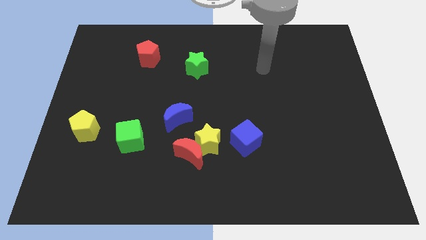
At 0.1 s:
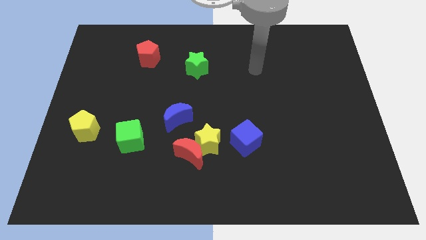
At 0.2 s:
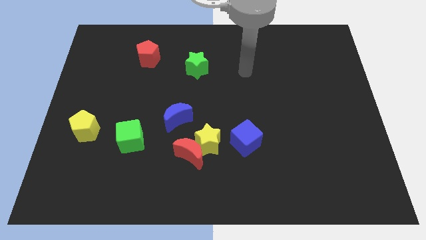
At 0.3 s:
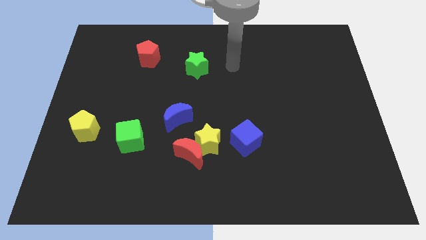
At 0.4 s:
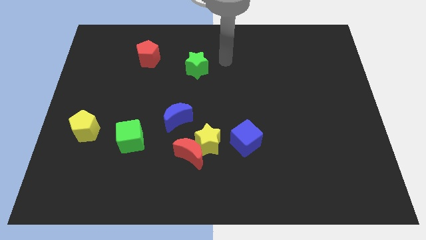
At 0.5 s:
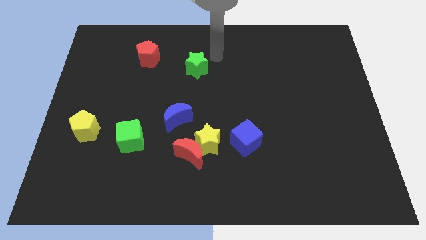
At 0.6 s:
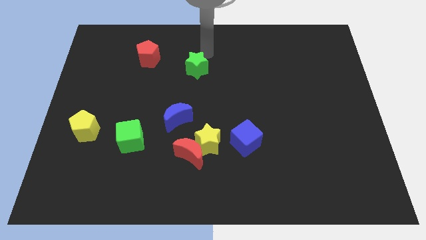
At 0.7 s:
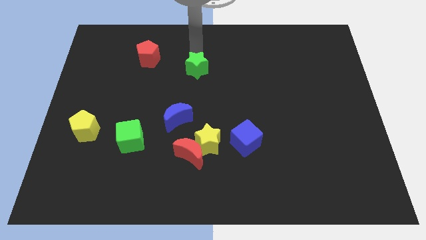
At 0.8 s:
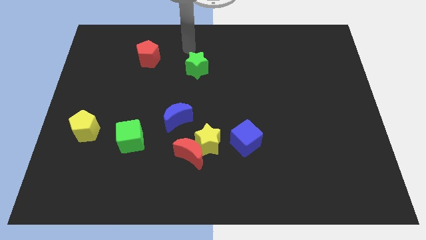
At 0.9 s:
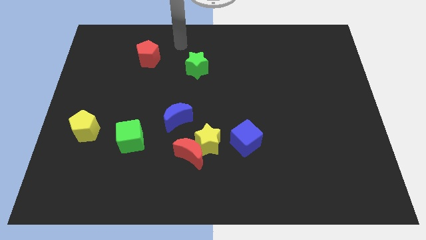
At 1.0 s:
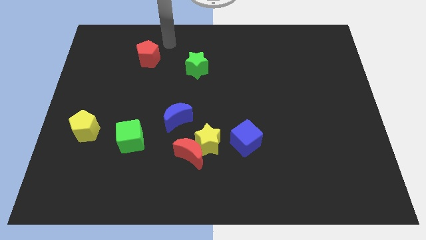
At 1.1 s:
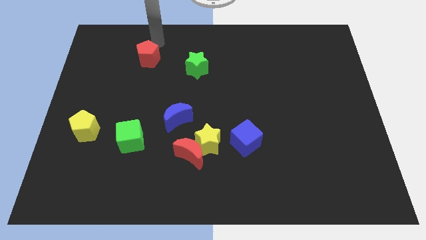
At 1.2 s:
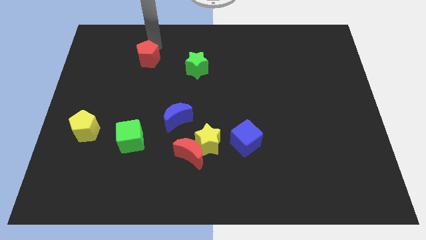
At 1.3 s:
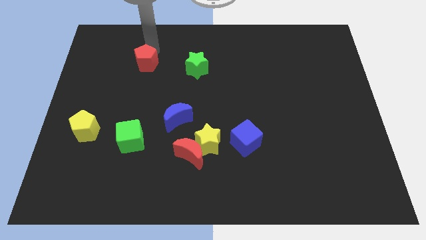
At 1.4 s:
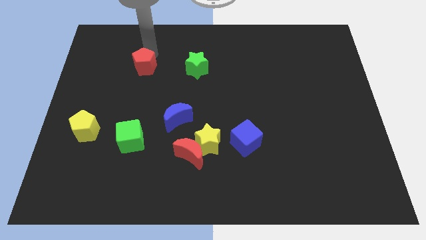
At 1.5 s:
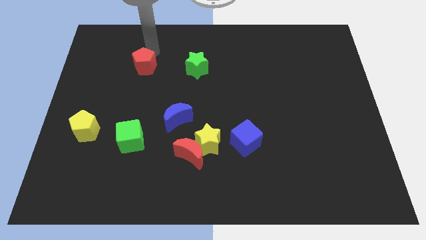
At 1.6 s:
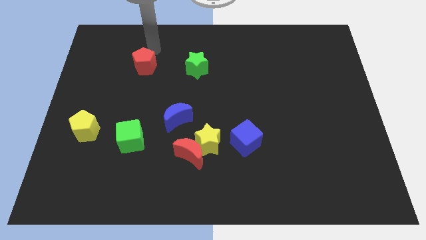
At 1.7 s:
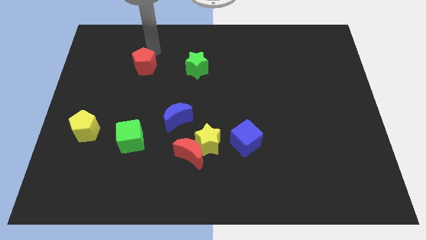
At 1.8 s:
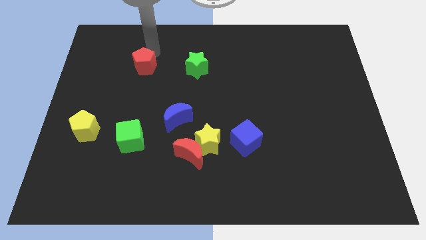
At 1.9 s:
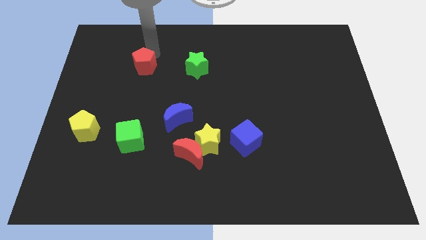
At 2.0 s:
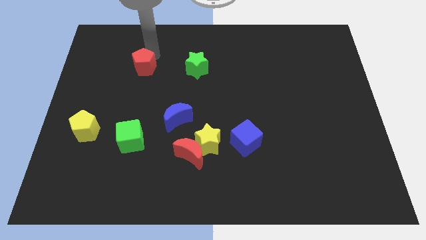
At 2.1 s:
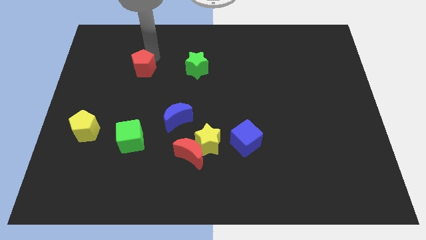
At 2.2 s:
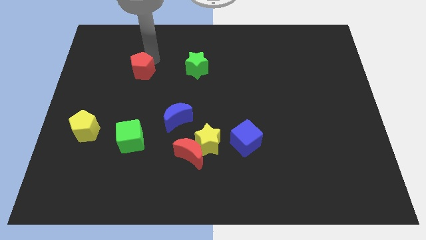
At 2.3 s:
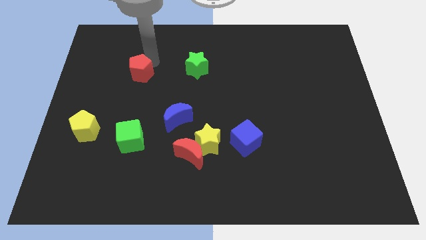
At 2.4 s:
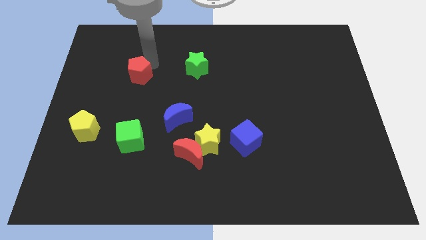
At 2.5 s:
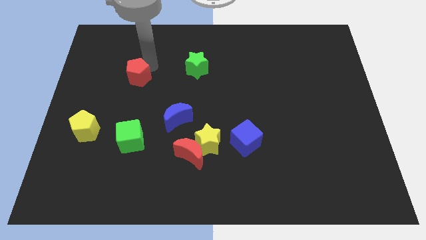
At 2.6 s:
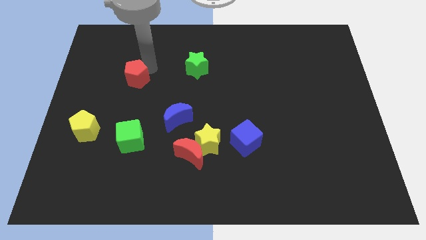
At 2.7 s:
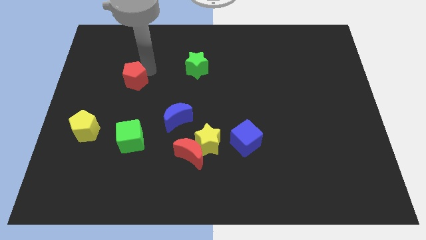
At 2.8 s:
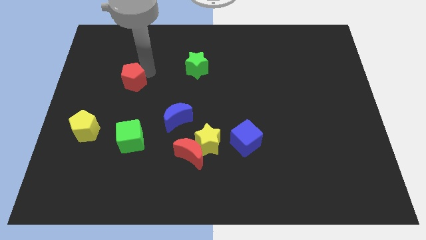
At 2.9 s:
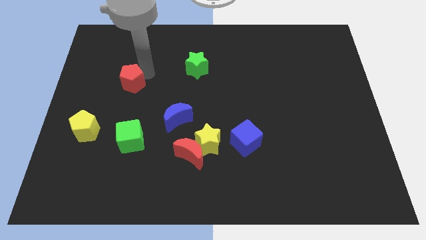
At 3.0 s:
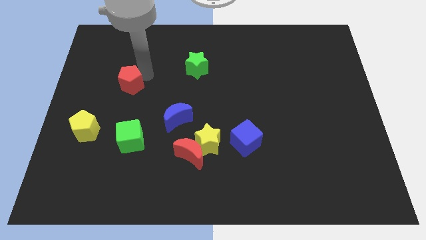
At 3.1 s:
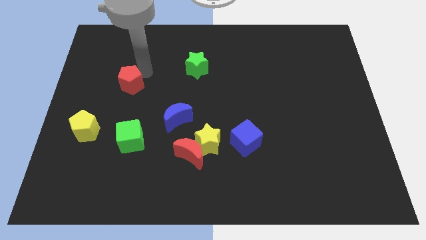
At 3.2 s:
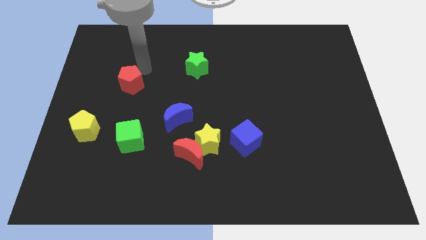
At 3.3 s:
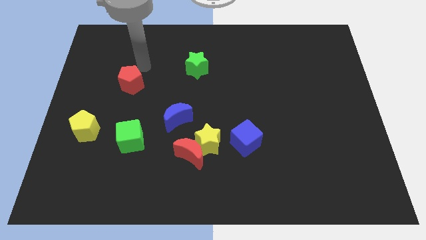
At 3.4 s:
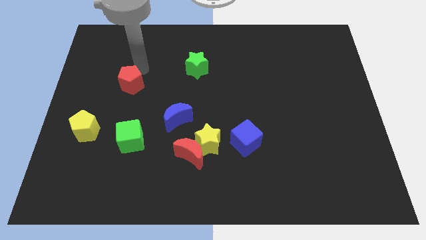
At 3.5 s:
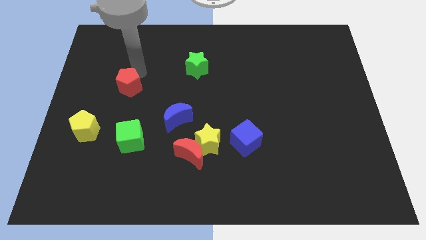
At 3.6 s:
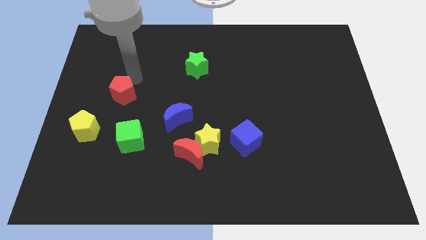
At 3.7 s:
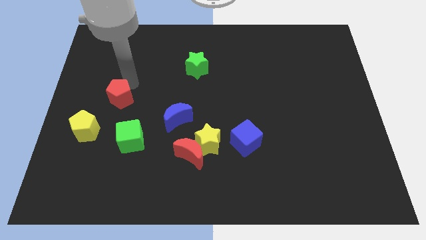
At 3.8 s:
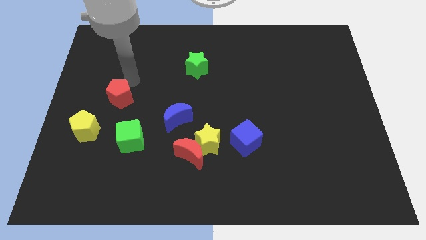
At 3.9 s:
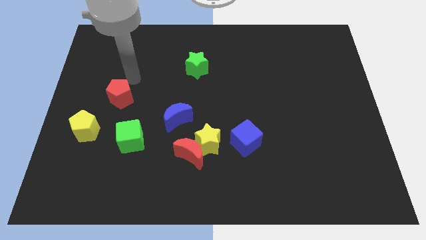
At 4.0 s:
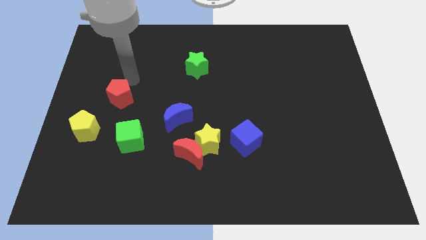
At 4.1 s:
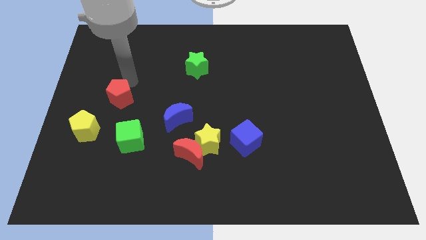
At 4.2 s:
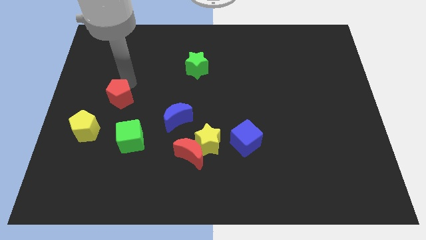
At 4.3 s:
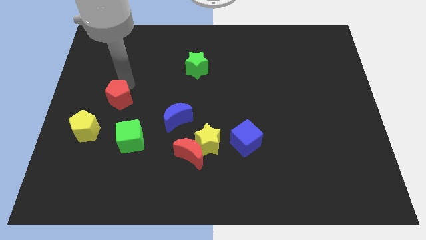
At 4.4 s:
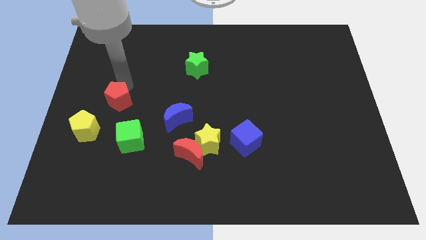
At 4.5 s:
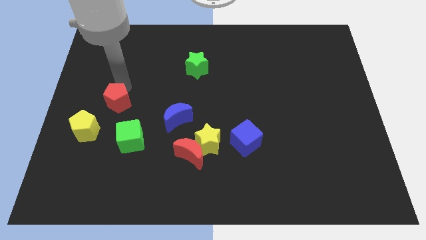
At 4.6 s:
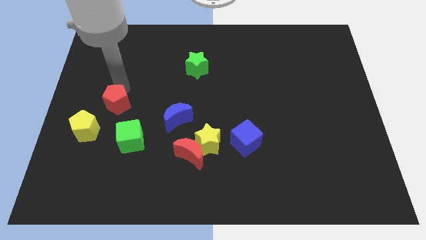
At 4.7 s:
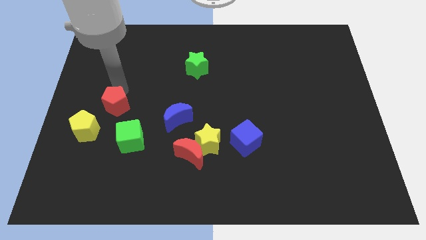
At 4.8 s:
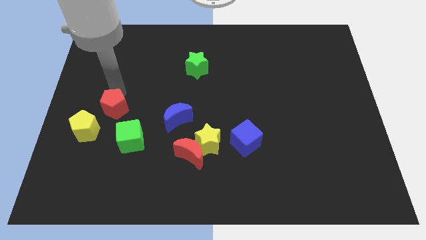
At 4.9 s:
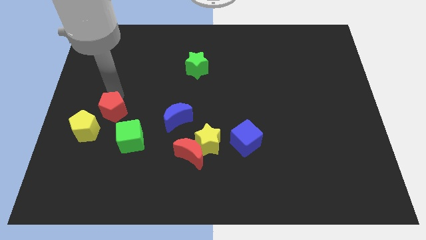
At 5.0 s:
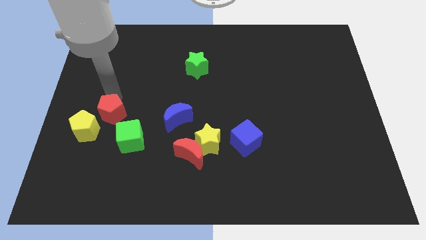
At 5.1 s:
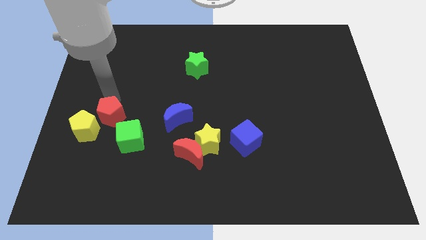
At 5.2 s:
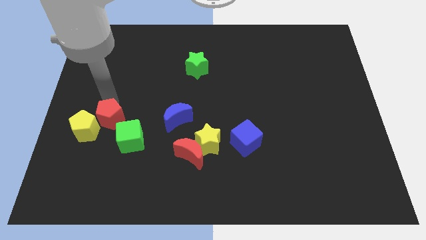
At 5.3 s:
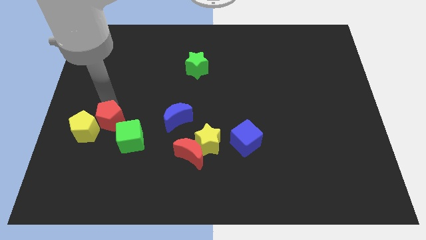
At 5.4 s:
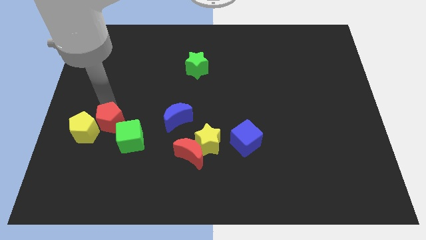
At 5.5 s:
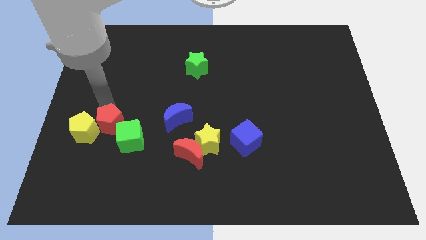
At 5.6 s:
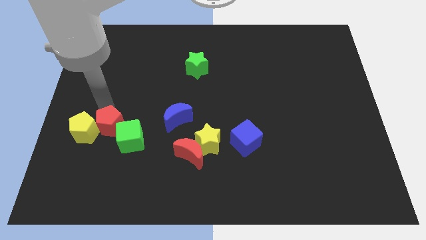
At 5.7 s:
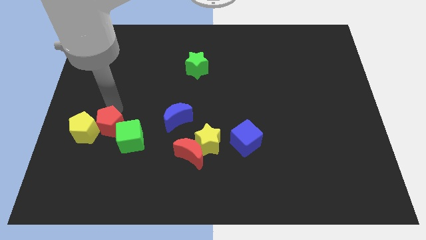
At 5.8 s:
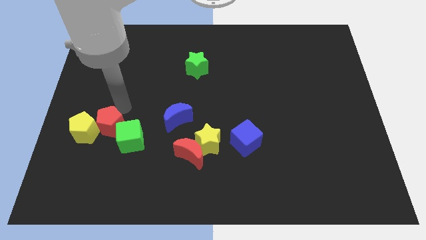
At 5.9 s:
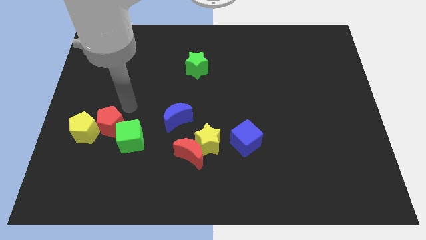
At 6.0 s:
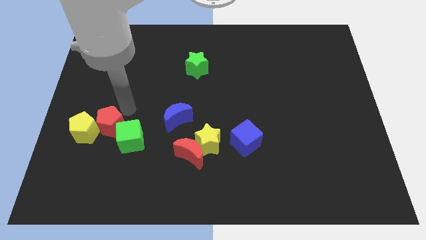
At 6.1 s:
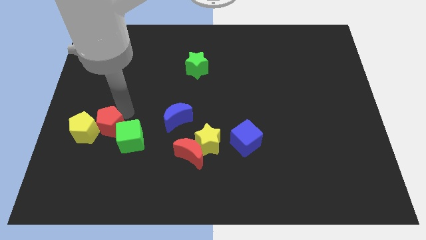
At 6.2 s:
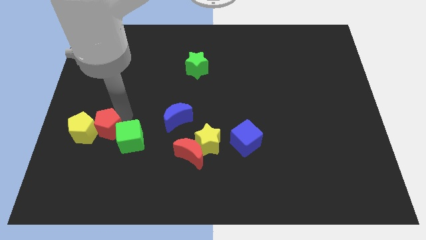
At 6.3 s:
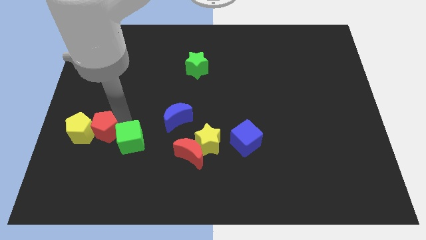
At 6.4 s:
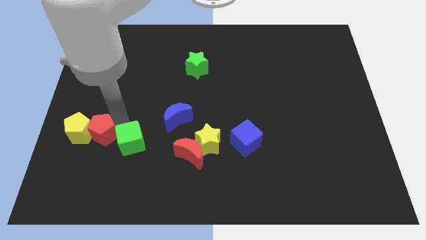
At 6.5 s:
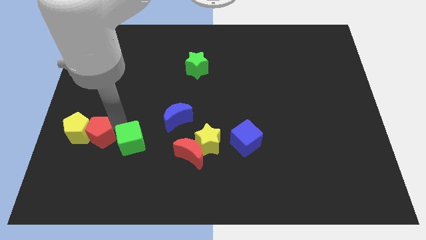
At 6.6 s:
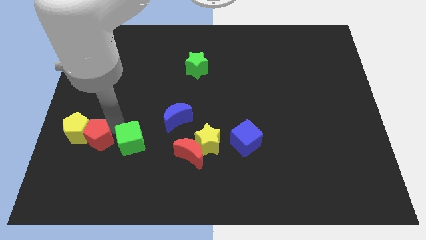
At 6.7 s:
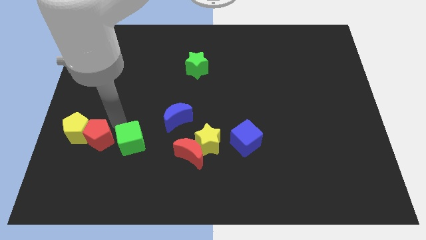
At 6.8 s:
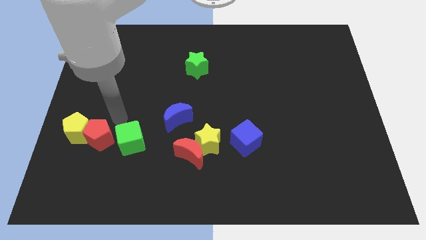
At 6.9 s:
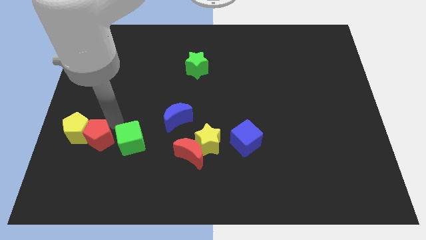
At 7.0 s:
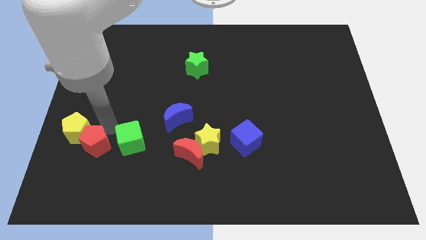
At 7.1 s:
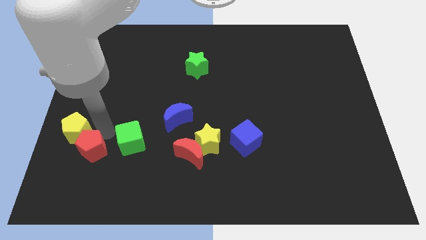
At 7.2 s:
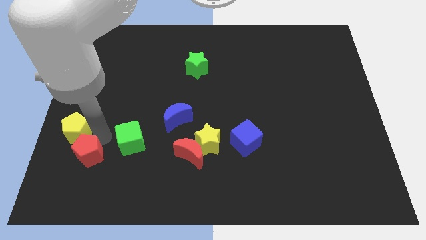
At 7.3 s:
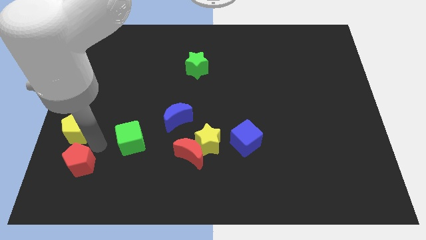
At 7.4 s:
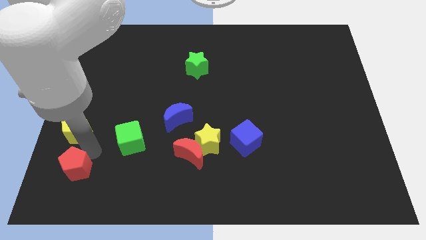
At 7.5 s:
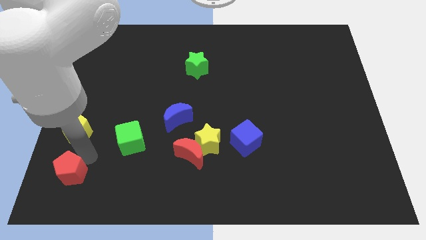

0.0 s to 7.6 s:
put the red pentagon to the bottom left corner

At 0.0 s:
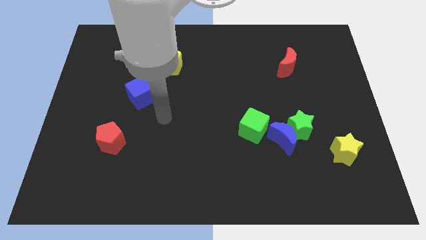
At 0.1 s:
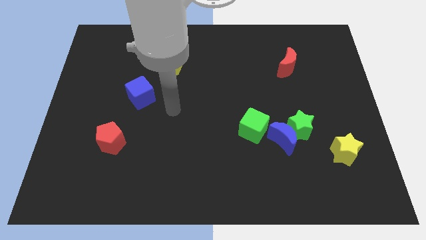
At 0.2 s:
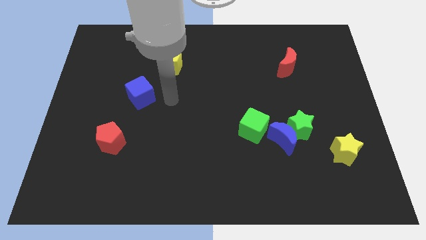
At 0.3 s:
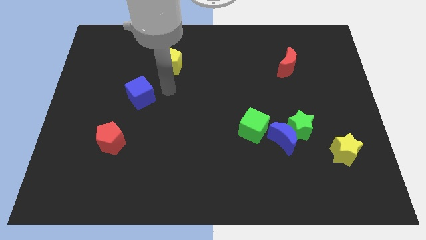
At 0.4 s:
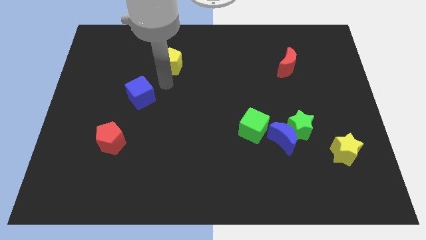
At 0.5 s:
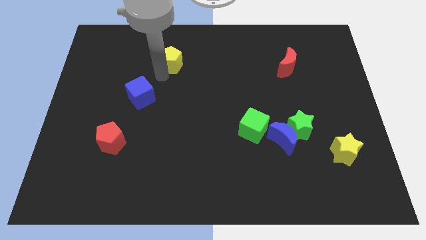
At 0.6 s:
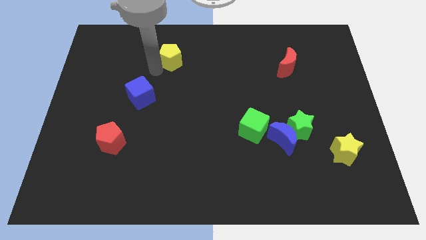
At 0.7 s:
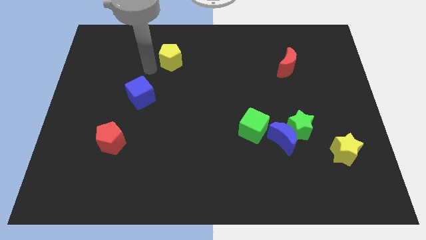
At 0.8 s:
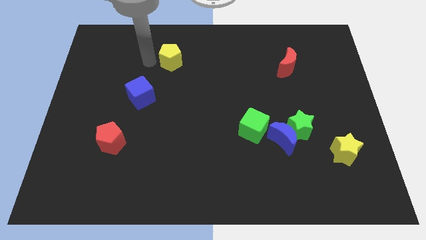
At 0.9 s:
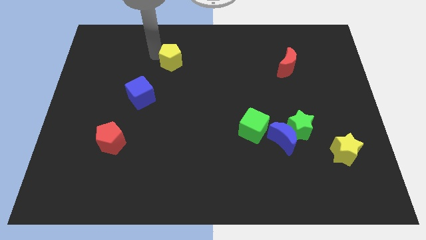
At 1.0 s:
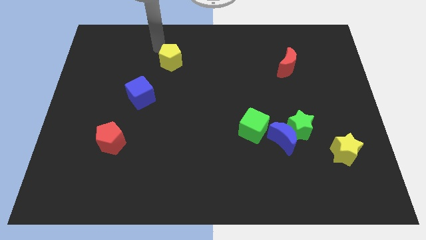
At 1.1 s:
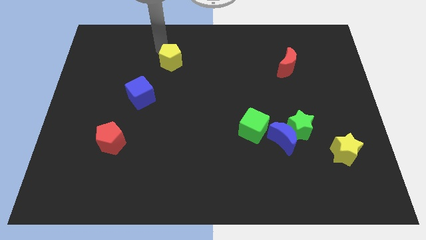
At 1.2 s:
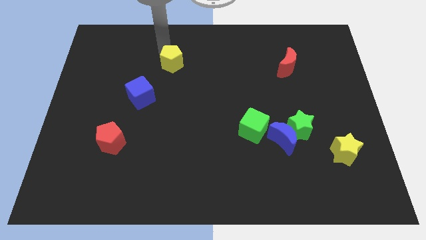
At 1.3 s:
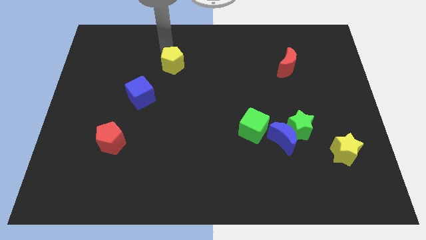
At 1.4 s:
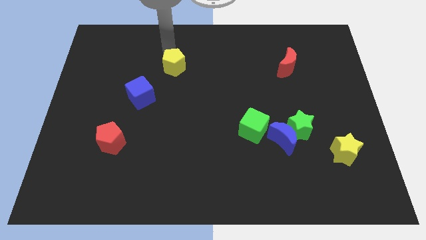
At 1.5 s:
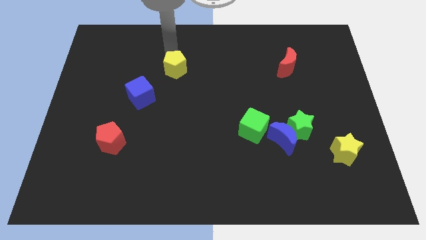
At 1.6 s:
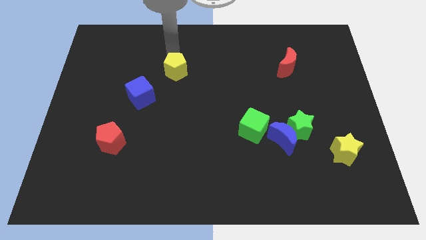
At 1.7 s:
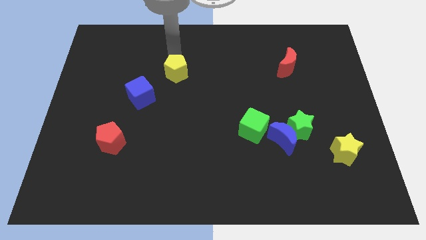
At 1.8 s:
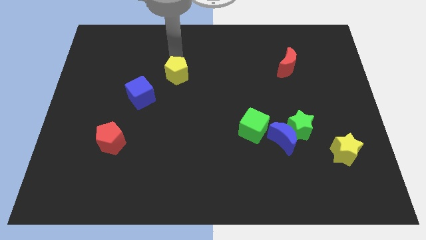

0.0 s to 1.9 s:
push the yellow pentagon to the center
